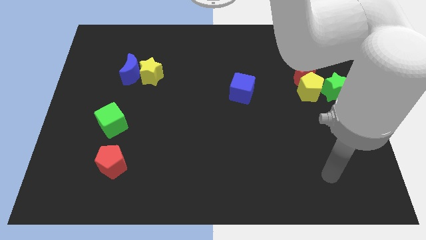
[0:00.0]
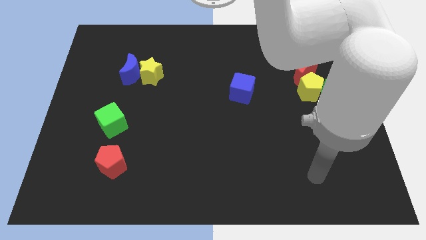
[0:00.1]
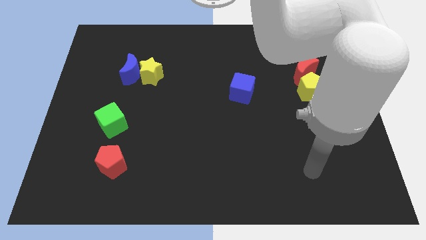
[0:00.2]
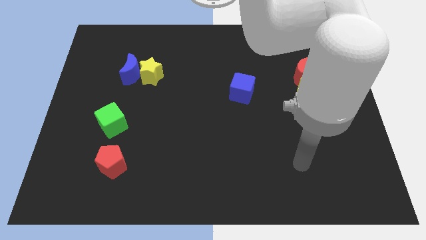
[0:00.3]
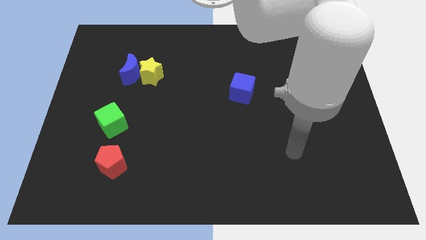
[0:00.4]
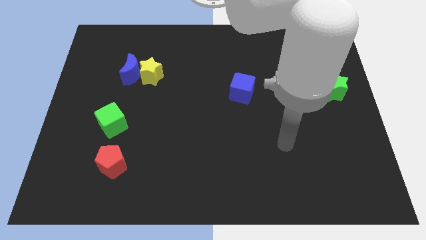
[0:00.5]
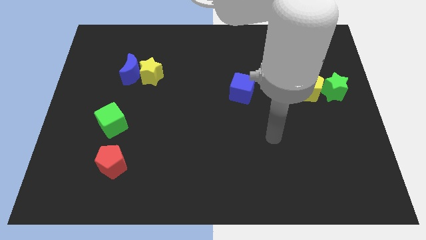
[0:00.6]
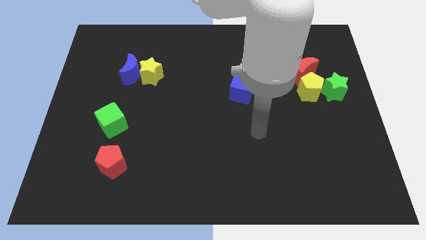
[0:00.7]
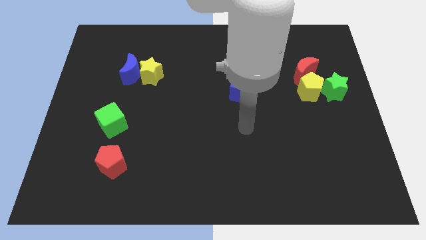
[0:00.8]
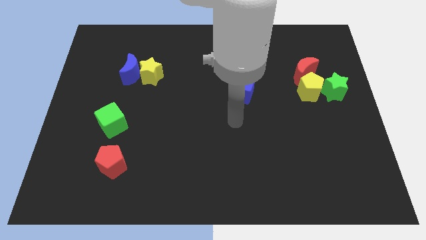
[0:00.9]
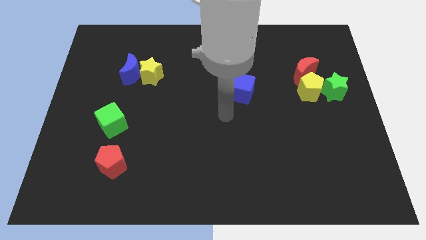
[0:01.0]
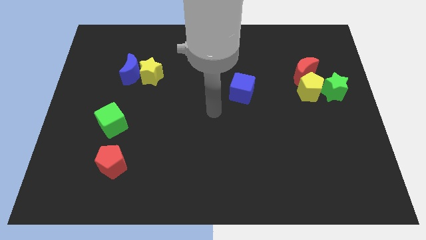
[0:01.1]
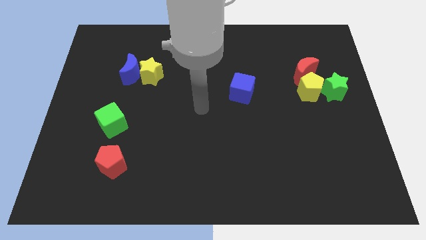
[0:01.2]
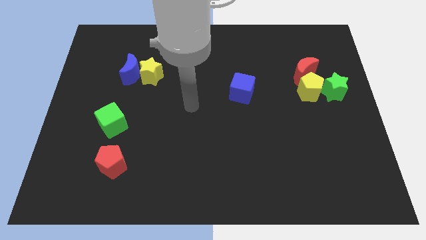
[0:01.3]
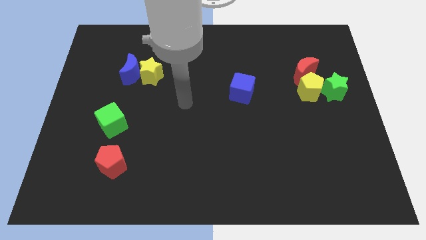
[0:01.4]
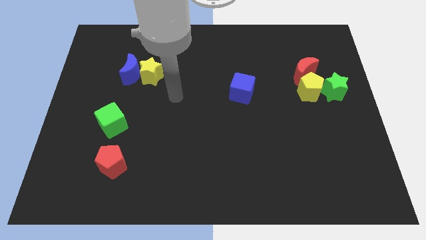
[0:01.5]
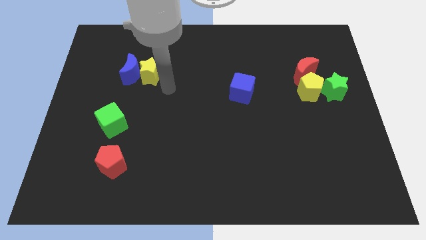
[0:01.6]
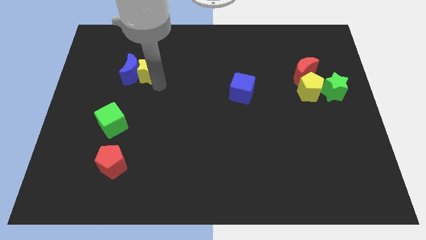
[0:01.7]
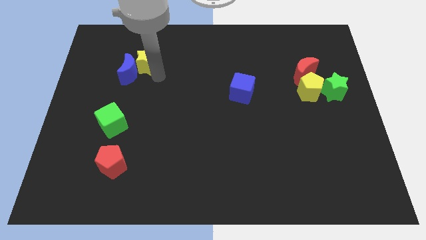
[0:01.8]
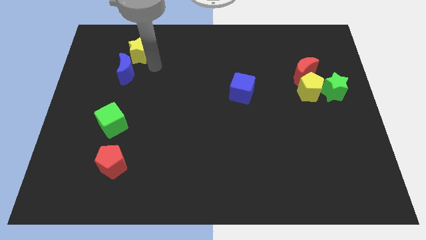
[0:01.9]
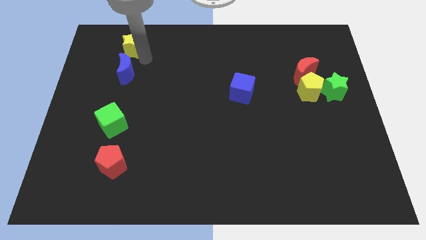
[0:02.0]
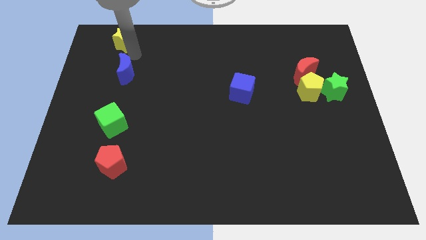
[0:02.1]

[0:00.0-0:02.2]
pull the blue moon apart from the yellow star

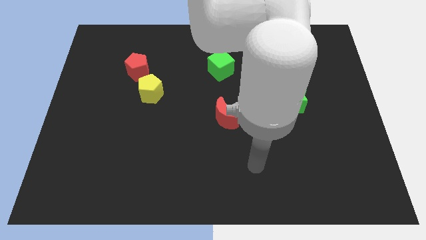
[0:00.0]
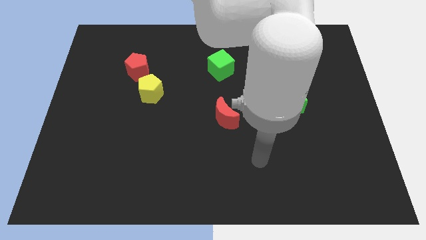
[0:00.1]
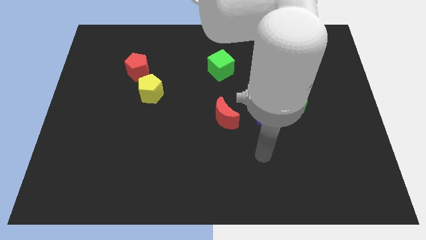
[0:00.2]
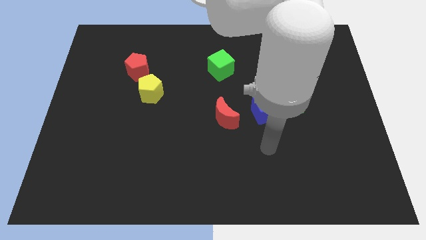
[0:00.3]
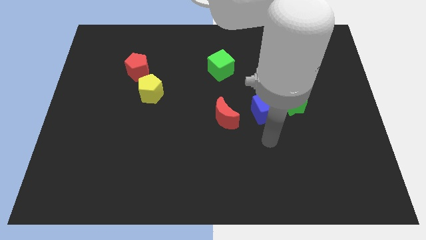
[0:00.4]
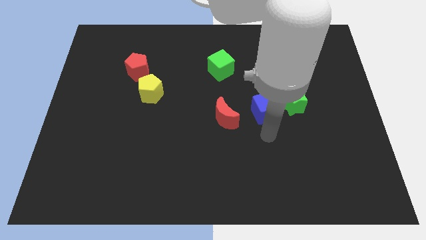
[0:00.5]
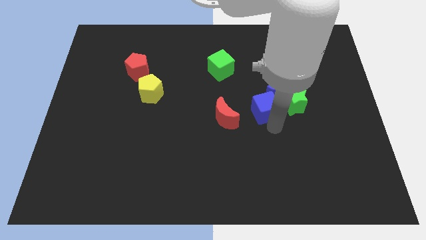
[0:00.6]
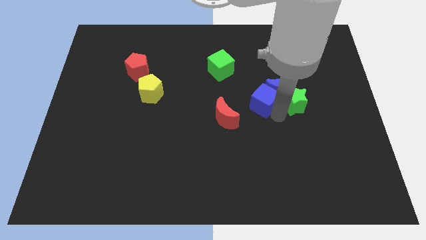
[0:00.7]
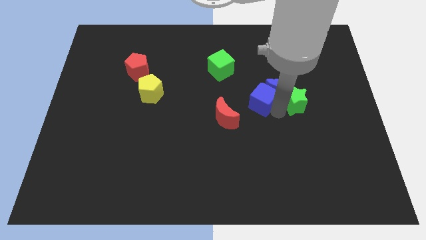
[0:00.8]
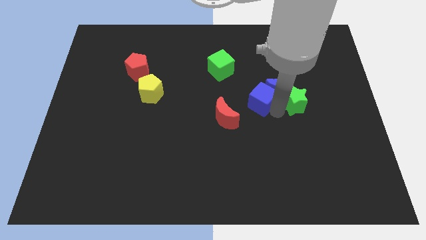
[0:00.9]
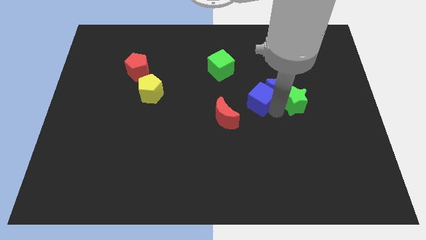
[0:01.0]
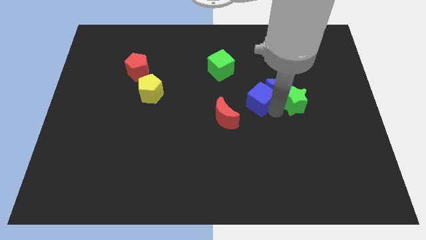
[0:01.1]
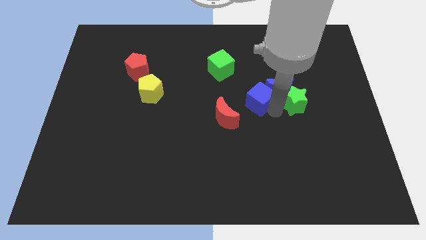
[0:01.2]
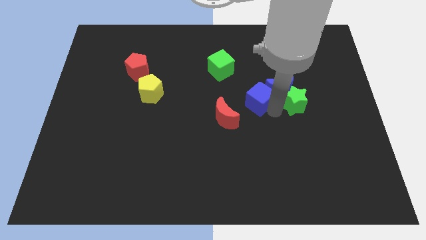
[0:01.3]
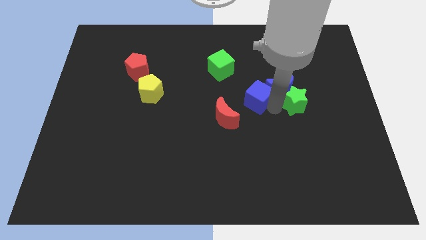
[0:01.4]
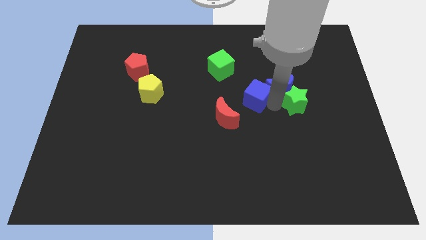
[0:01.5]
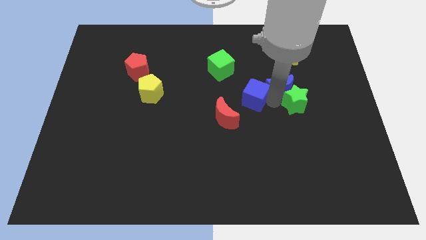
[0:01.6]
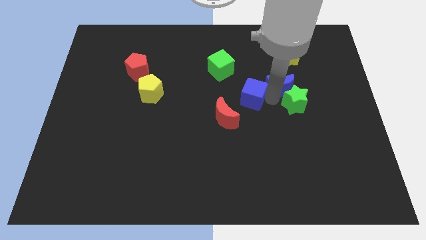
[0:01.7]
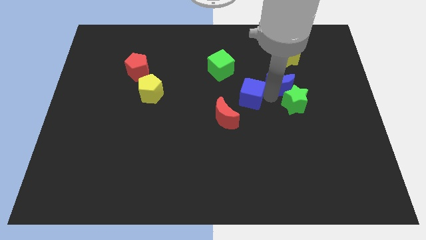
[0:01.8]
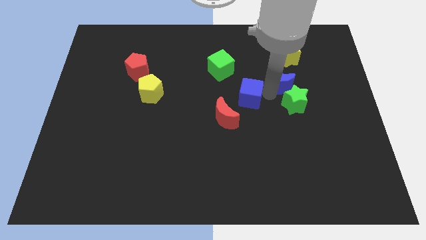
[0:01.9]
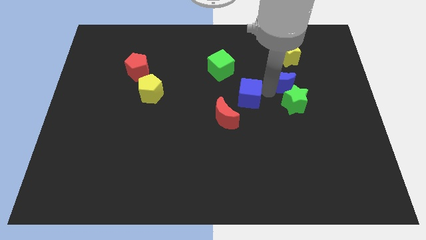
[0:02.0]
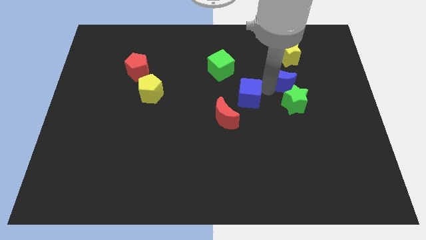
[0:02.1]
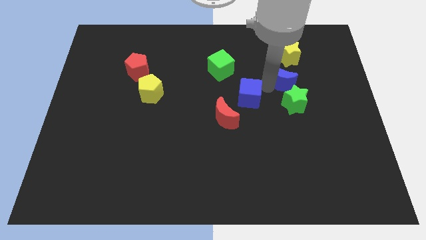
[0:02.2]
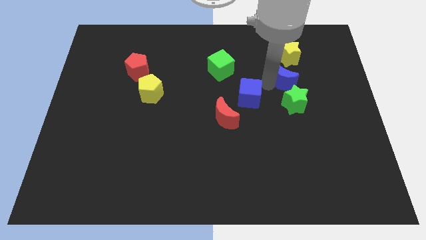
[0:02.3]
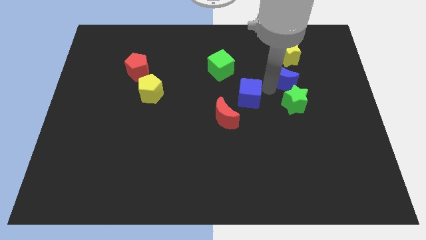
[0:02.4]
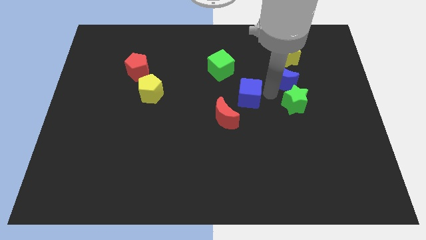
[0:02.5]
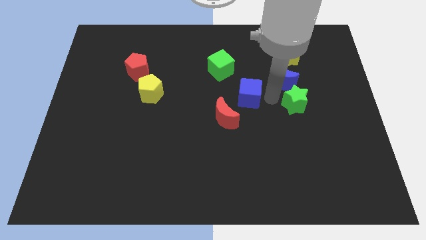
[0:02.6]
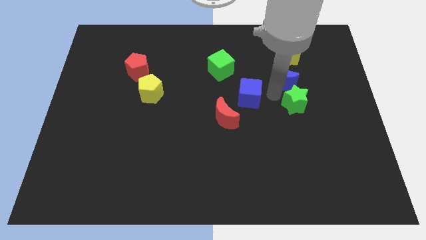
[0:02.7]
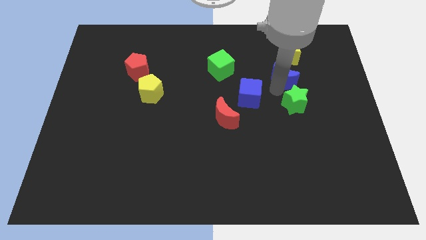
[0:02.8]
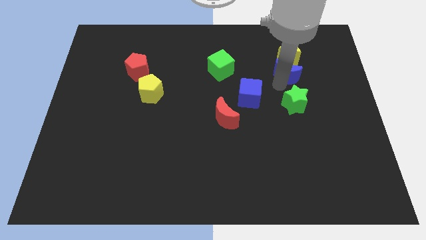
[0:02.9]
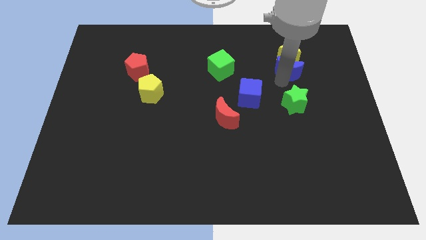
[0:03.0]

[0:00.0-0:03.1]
separate the blue moon from the green star and blue cube

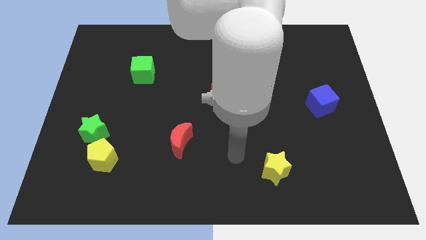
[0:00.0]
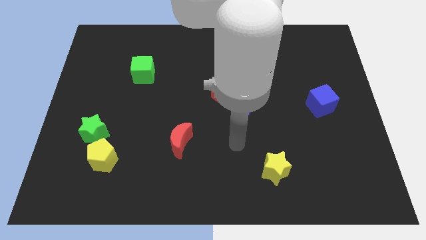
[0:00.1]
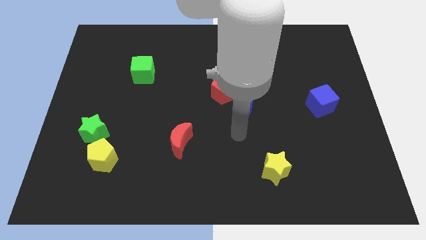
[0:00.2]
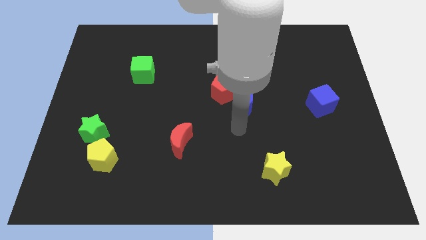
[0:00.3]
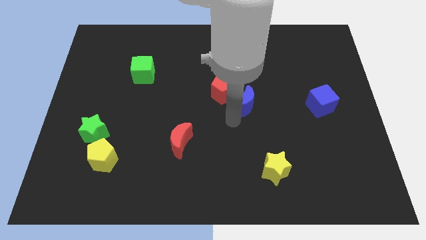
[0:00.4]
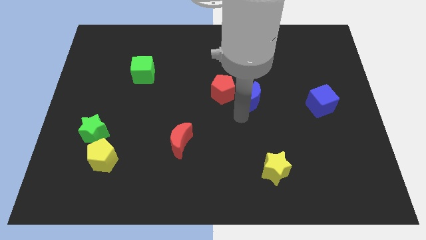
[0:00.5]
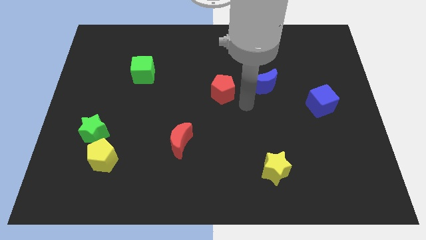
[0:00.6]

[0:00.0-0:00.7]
separate the red pentagon from the blue moon

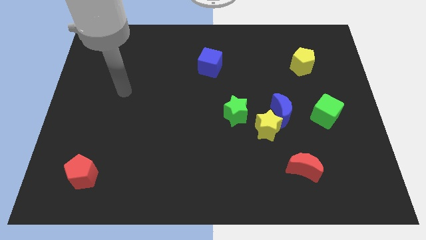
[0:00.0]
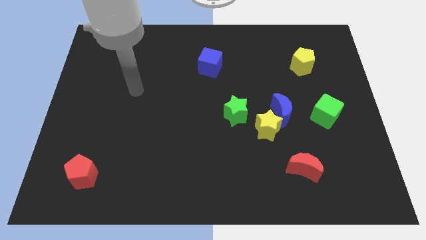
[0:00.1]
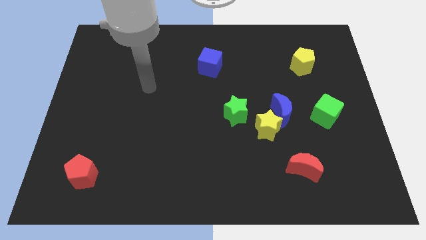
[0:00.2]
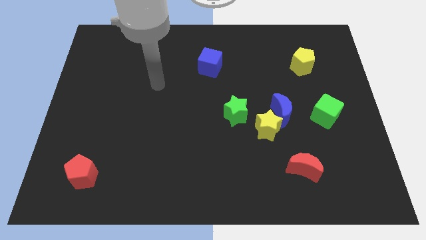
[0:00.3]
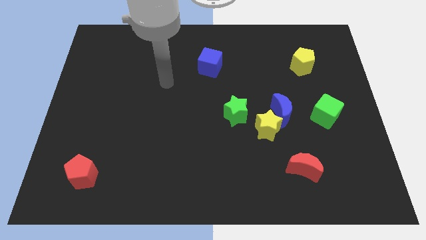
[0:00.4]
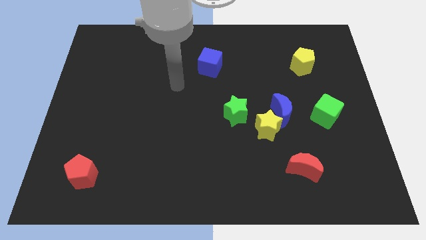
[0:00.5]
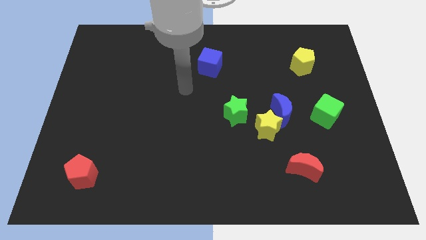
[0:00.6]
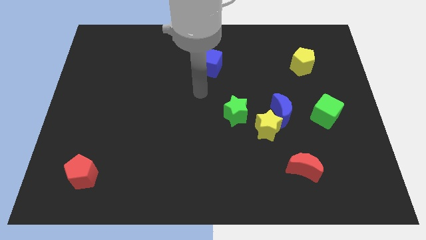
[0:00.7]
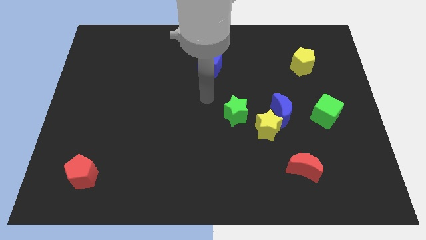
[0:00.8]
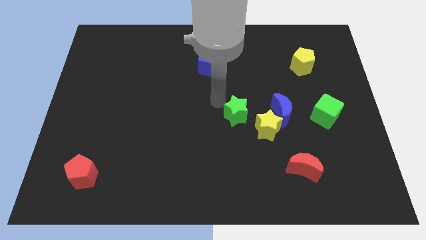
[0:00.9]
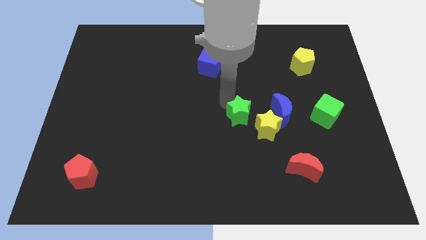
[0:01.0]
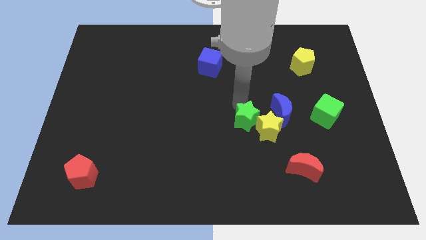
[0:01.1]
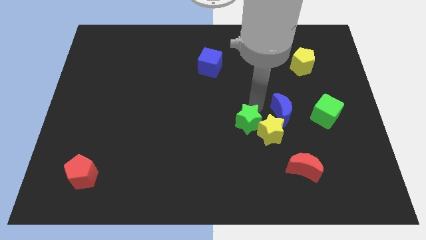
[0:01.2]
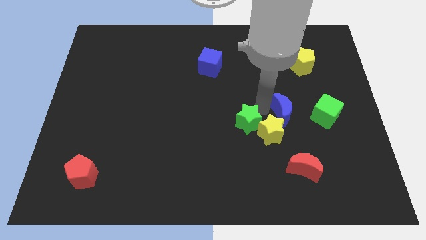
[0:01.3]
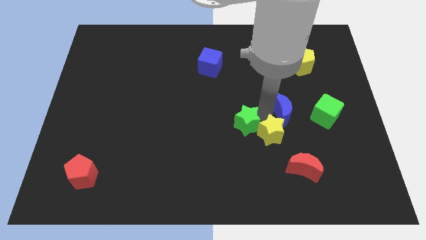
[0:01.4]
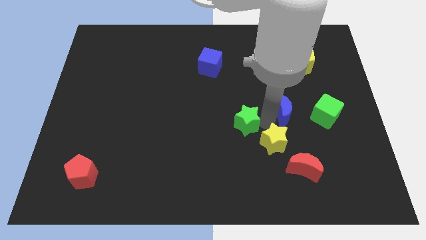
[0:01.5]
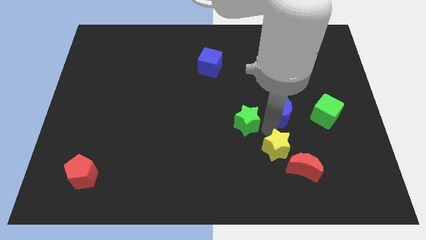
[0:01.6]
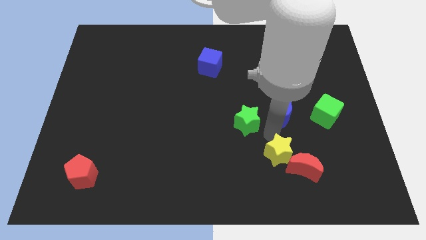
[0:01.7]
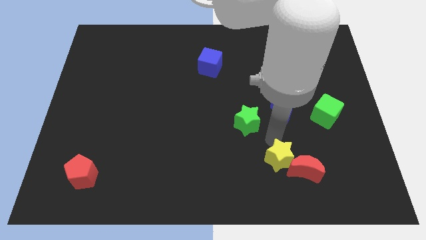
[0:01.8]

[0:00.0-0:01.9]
move the yellow star away from the blue moon and green star

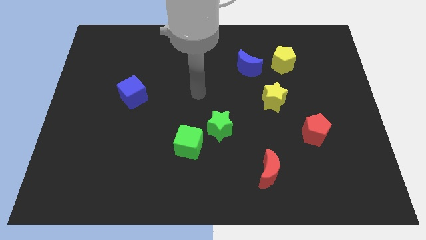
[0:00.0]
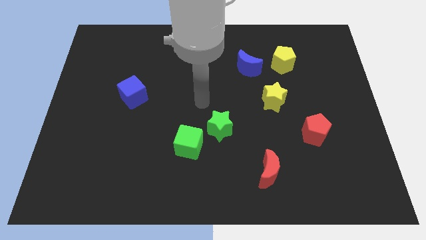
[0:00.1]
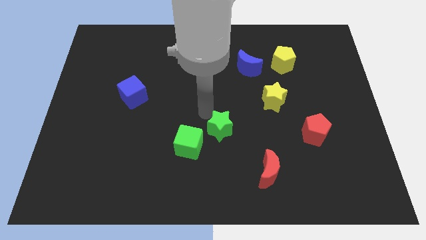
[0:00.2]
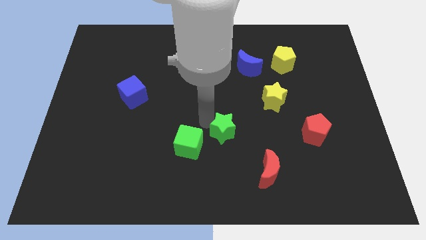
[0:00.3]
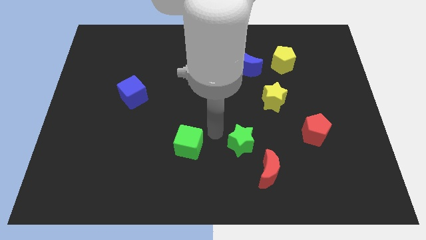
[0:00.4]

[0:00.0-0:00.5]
move the green cube away from the green star

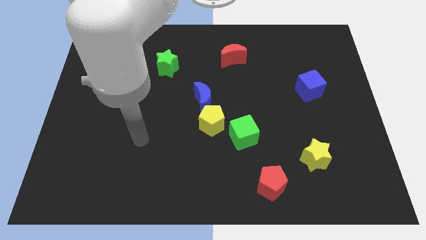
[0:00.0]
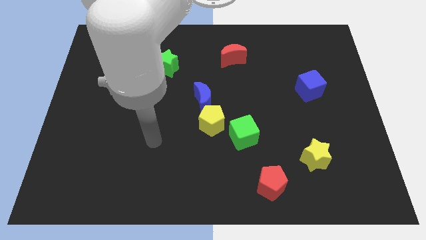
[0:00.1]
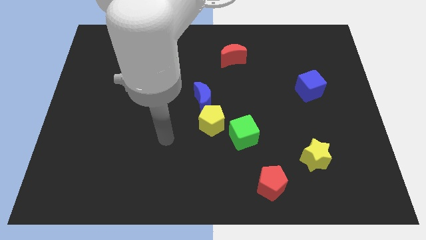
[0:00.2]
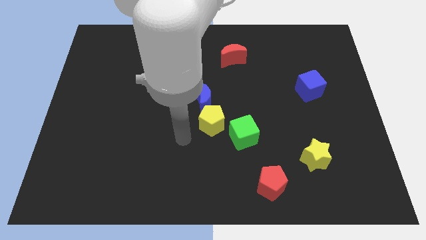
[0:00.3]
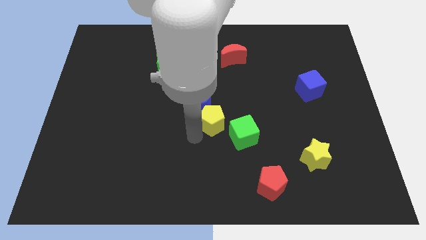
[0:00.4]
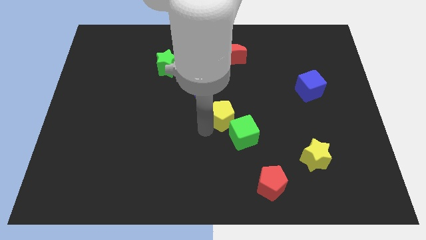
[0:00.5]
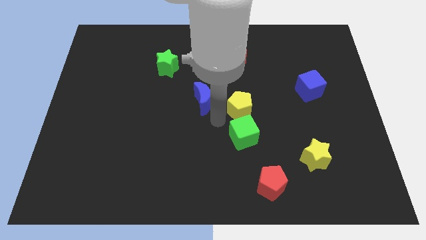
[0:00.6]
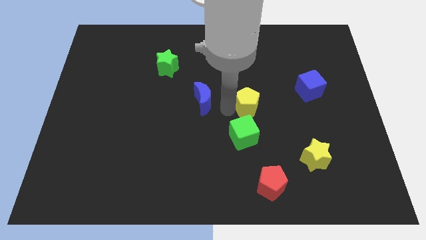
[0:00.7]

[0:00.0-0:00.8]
separate the blue moon from the yellow pentagon
